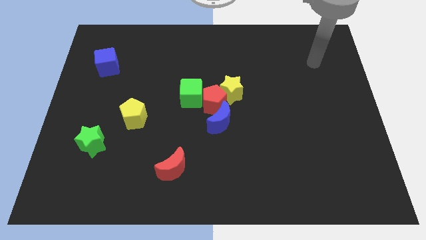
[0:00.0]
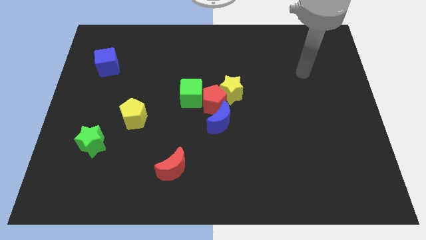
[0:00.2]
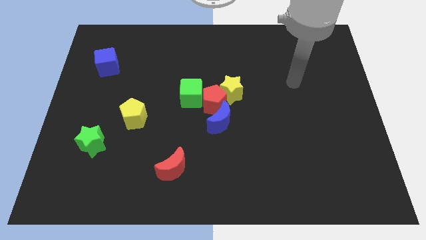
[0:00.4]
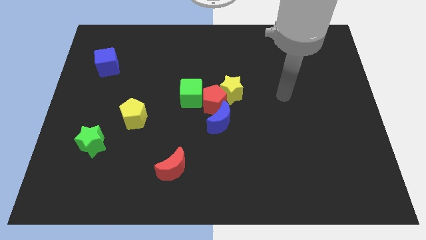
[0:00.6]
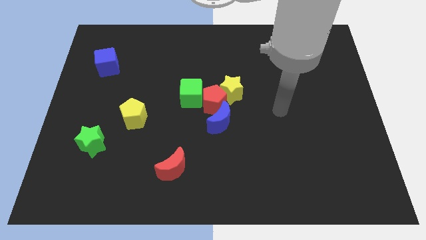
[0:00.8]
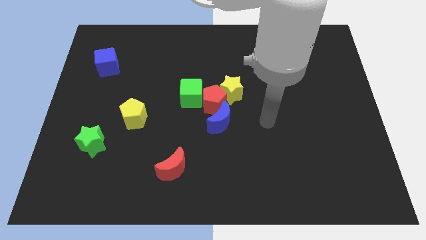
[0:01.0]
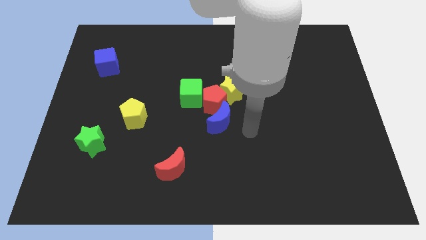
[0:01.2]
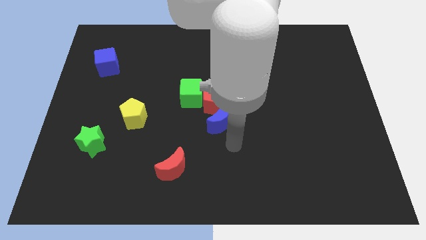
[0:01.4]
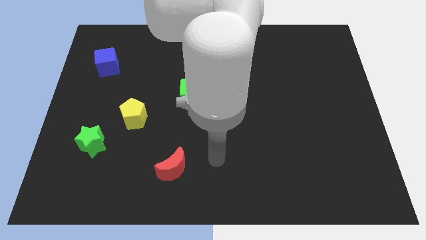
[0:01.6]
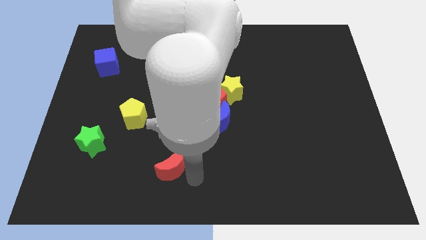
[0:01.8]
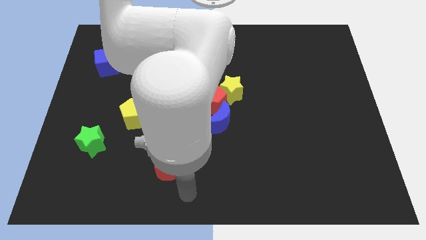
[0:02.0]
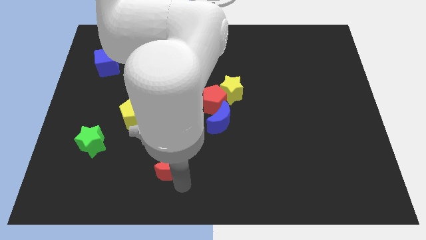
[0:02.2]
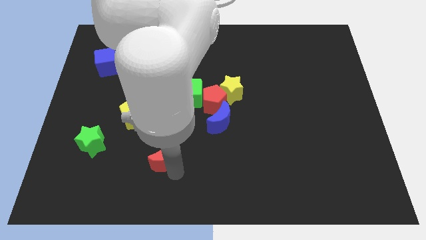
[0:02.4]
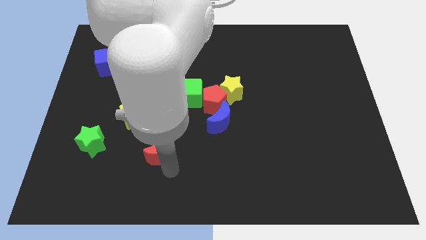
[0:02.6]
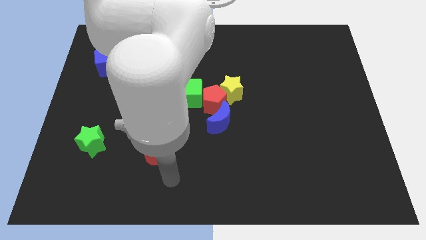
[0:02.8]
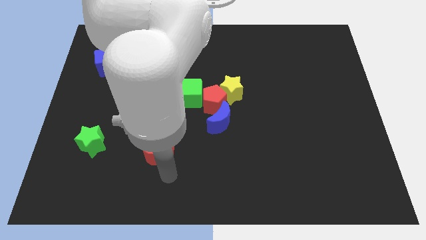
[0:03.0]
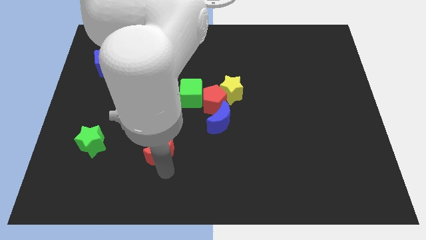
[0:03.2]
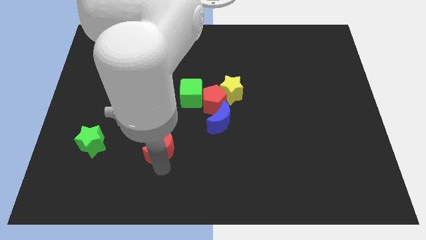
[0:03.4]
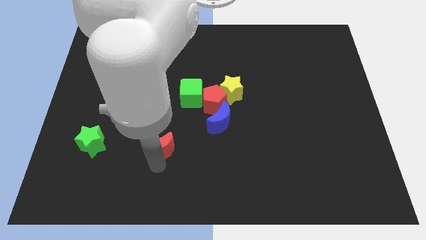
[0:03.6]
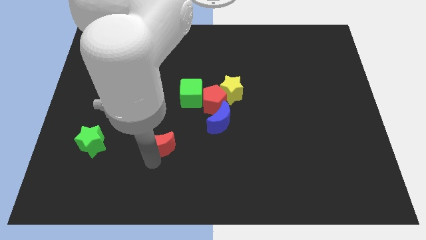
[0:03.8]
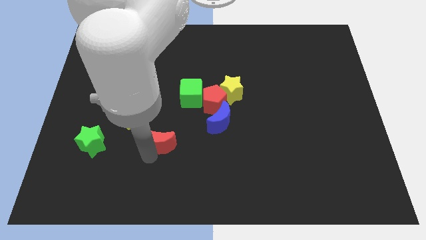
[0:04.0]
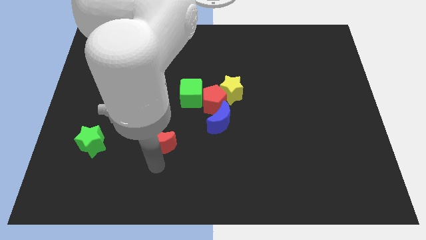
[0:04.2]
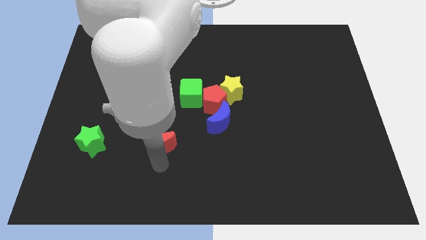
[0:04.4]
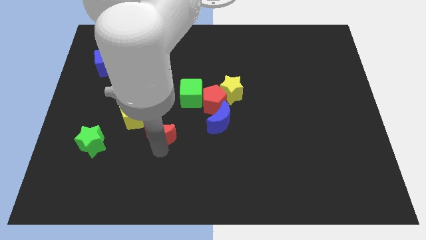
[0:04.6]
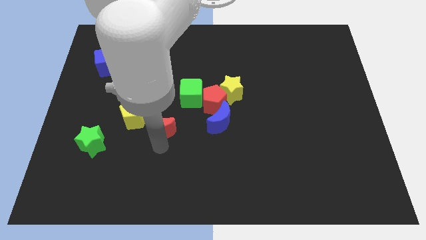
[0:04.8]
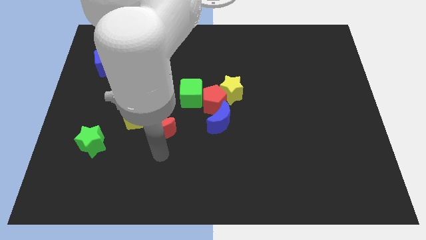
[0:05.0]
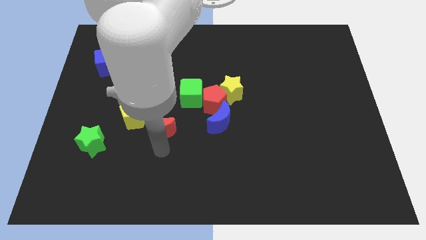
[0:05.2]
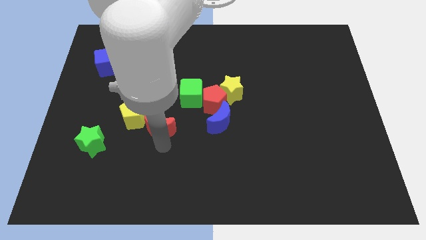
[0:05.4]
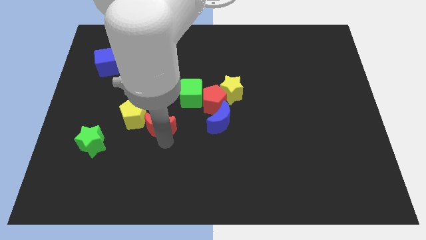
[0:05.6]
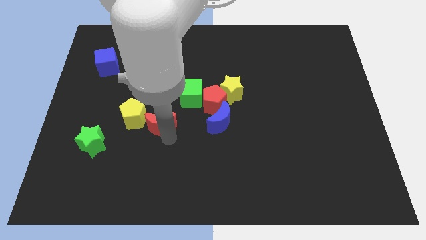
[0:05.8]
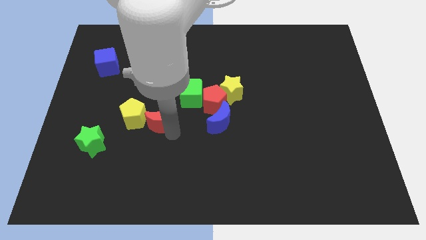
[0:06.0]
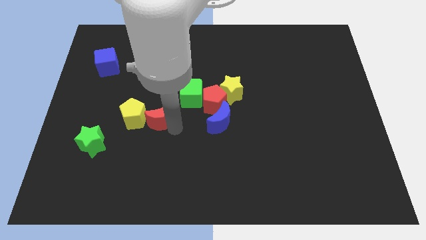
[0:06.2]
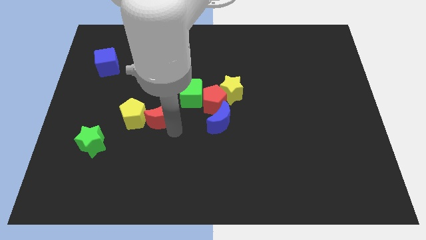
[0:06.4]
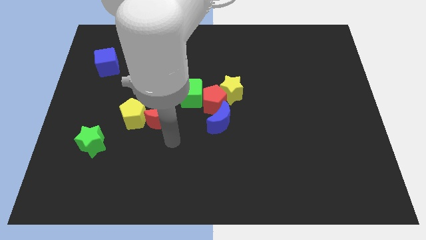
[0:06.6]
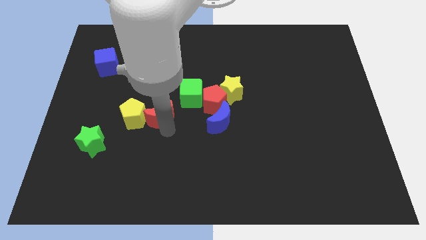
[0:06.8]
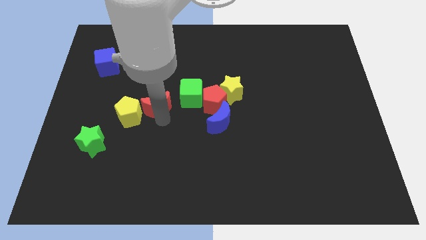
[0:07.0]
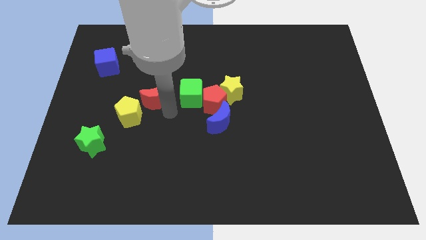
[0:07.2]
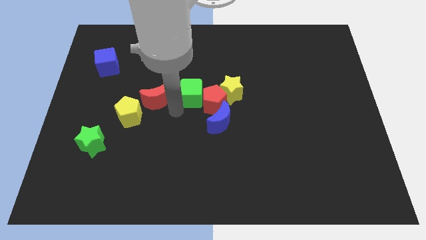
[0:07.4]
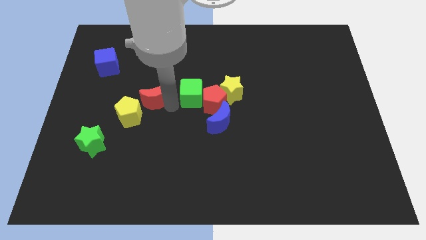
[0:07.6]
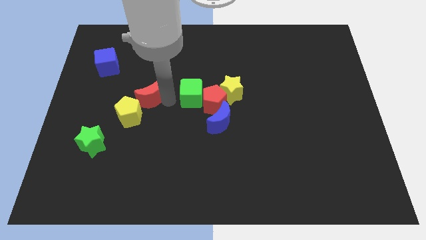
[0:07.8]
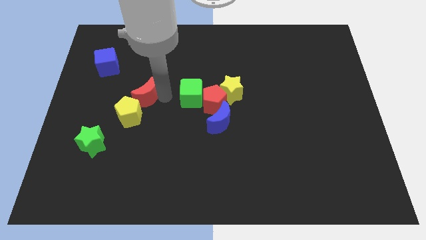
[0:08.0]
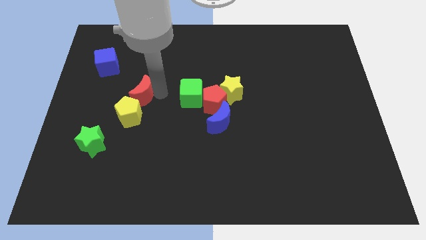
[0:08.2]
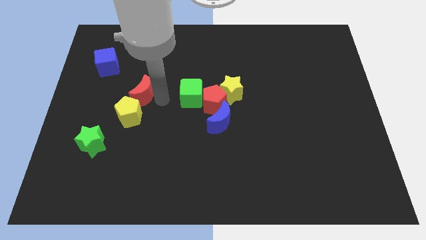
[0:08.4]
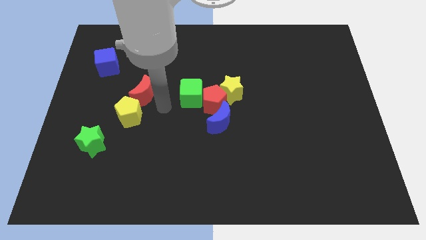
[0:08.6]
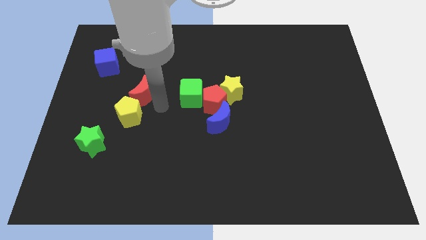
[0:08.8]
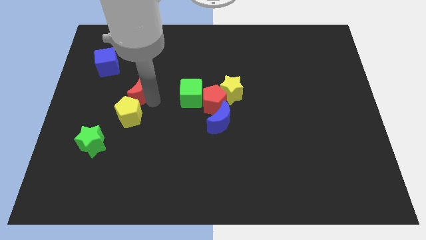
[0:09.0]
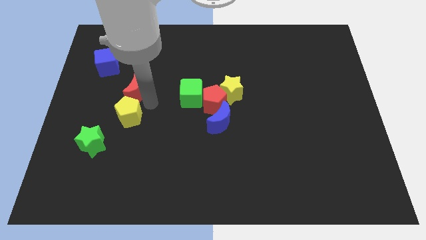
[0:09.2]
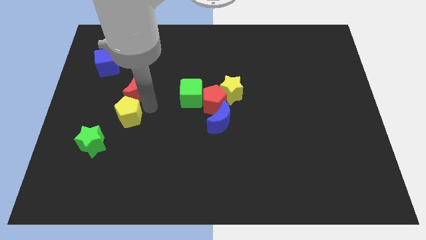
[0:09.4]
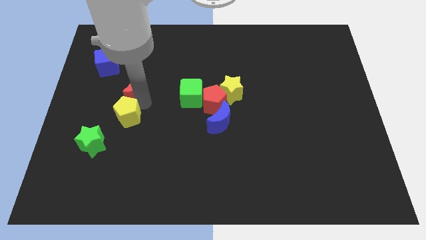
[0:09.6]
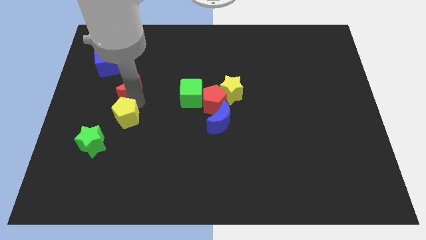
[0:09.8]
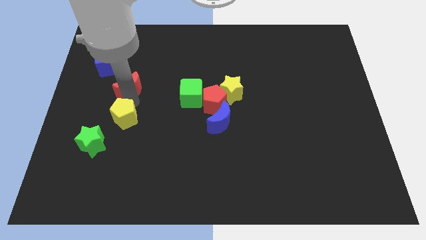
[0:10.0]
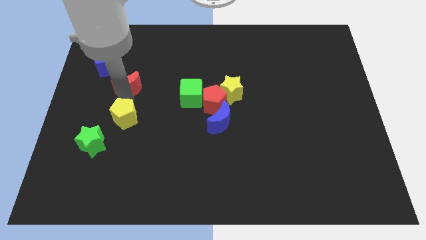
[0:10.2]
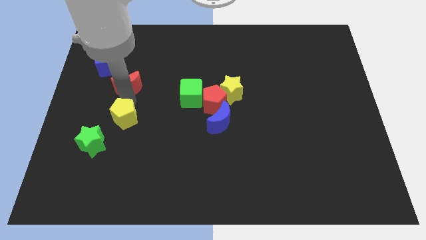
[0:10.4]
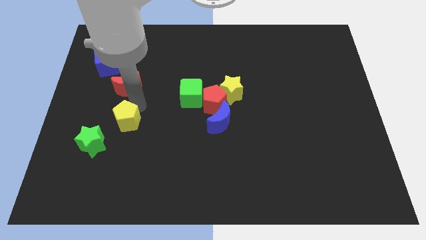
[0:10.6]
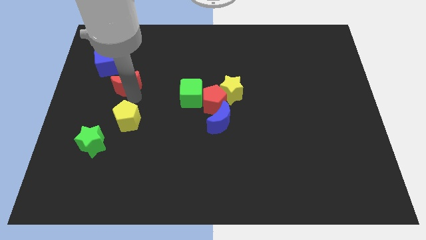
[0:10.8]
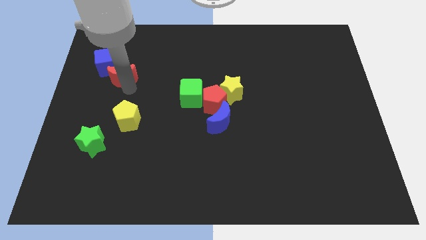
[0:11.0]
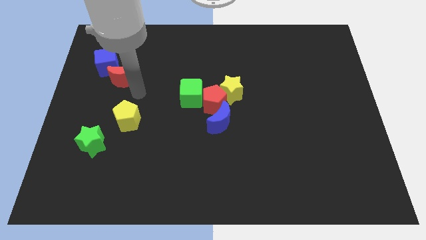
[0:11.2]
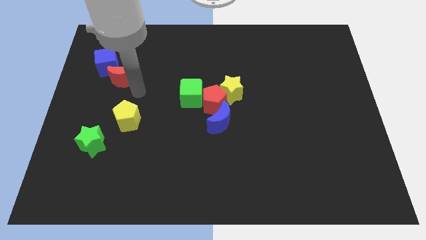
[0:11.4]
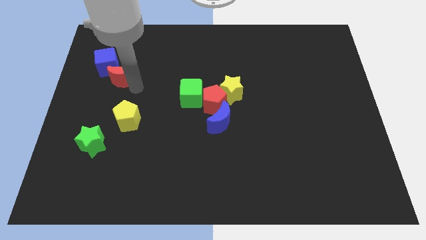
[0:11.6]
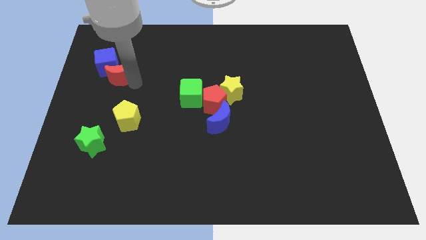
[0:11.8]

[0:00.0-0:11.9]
push the red moon close to the blue cube

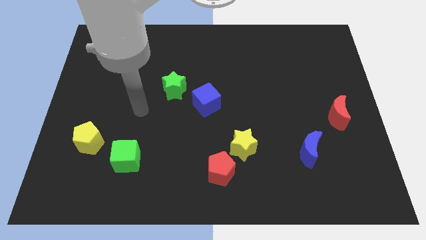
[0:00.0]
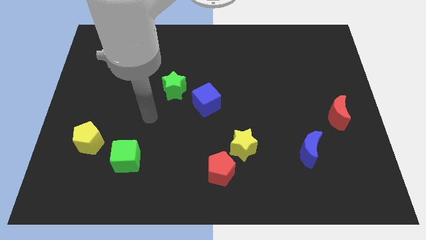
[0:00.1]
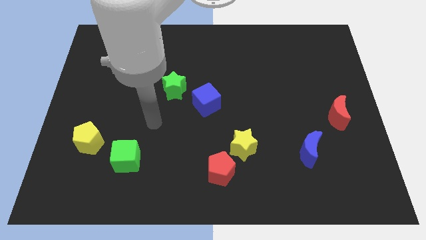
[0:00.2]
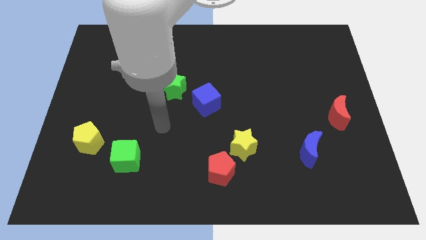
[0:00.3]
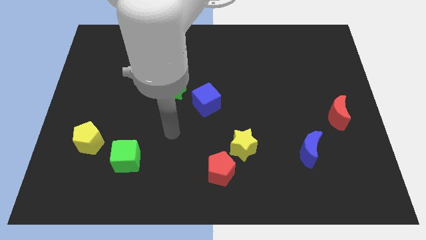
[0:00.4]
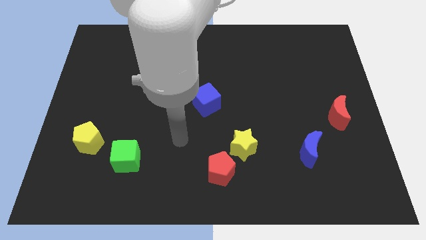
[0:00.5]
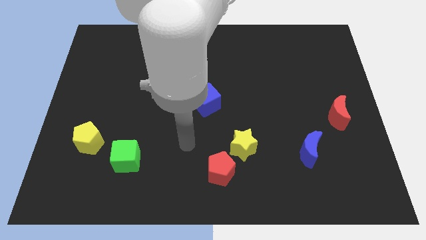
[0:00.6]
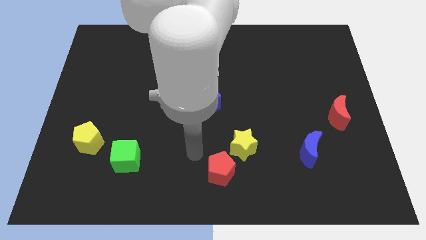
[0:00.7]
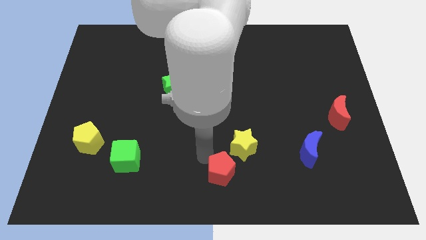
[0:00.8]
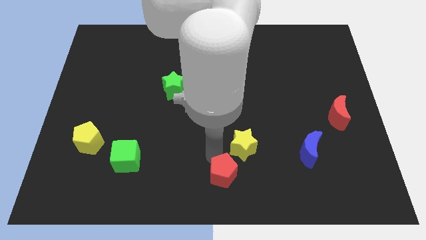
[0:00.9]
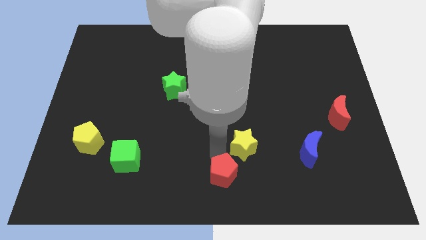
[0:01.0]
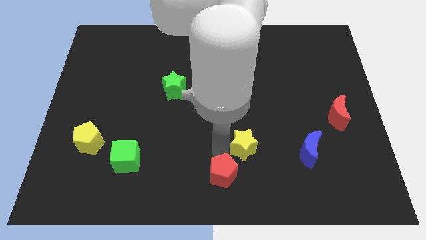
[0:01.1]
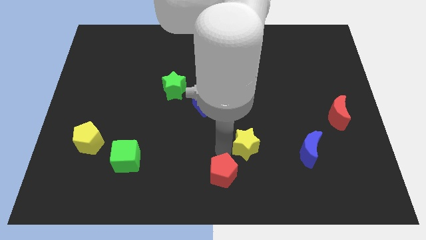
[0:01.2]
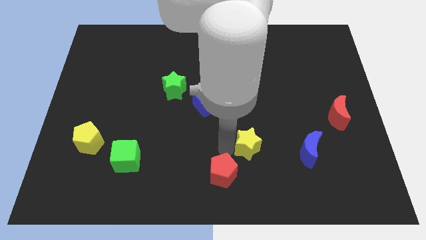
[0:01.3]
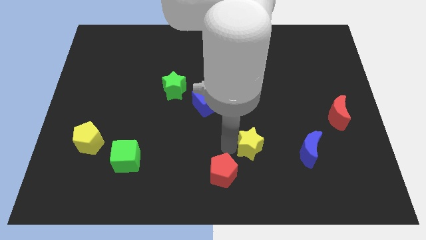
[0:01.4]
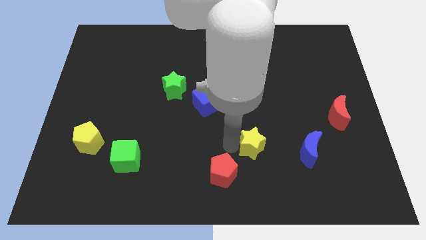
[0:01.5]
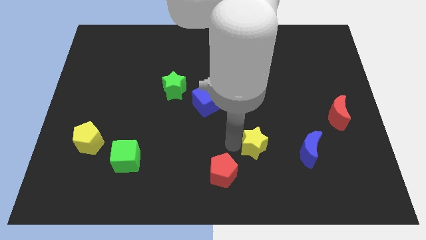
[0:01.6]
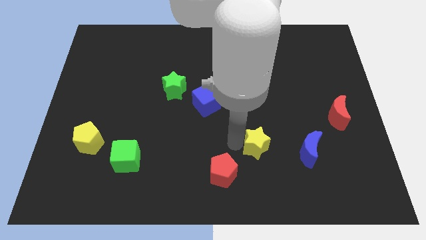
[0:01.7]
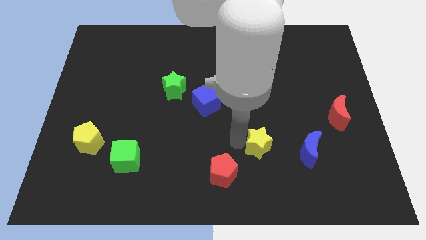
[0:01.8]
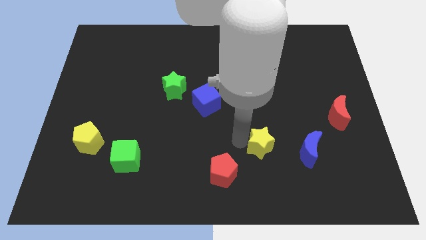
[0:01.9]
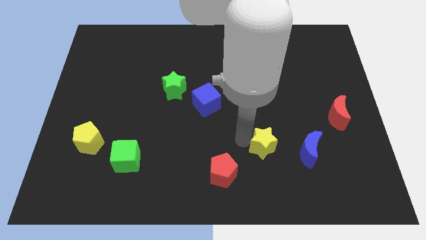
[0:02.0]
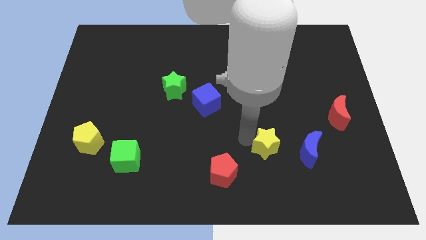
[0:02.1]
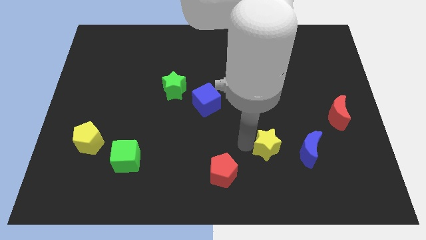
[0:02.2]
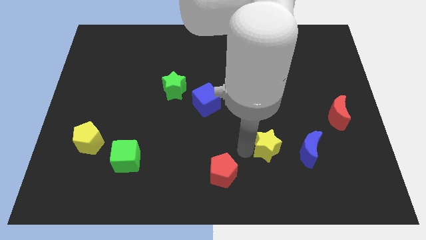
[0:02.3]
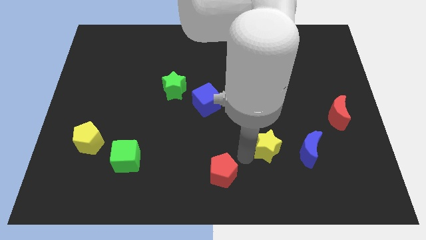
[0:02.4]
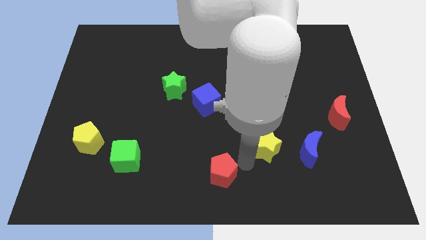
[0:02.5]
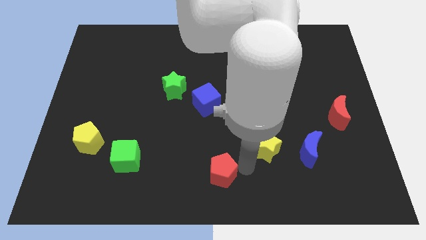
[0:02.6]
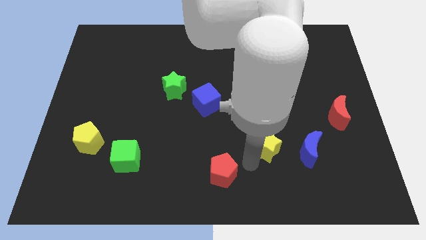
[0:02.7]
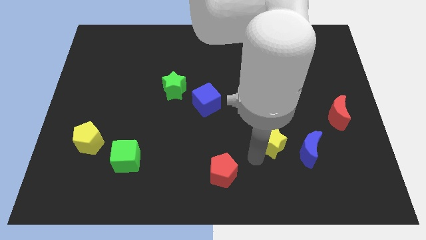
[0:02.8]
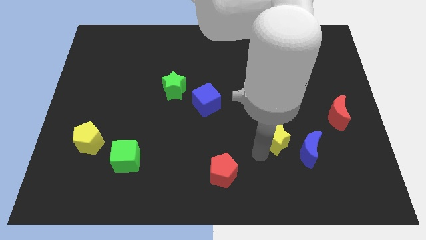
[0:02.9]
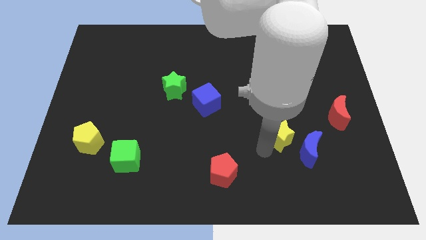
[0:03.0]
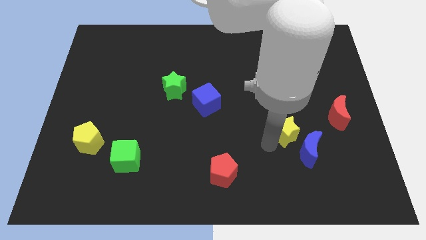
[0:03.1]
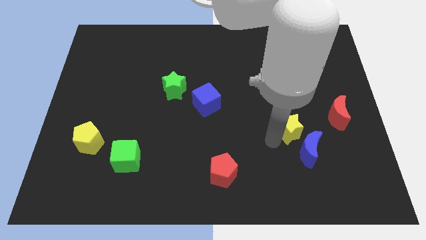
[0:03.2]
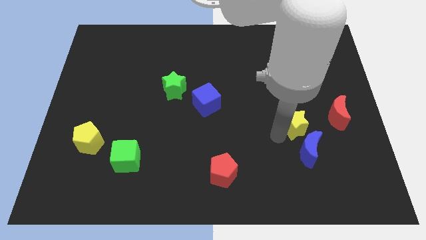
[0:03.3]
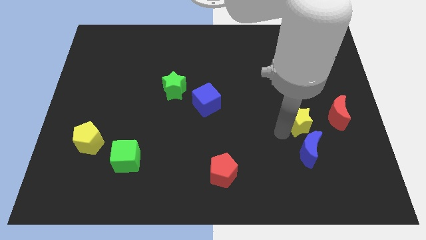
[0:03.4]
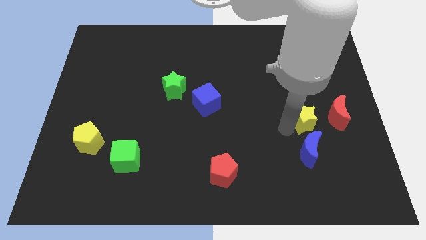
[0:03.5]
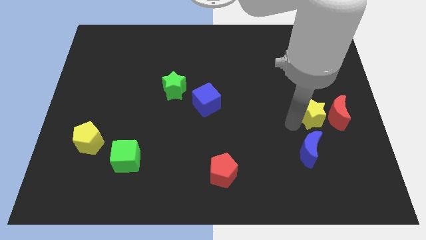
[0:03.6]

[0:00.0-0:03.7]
move the yellow star to the red moon
